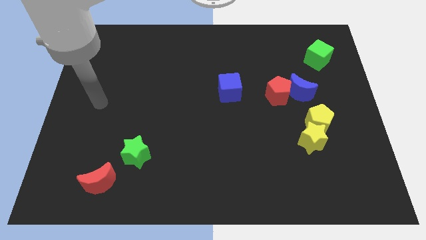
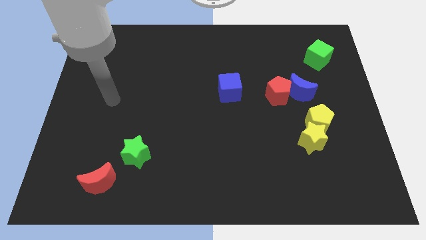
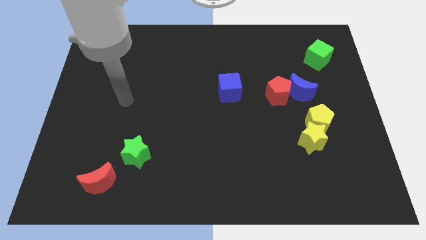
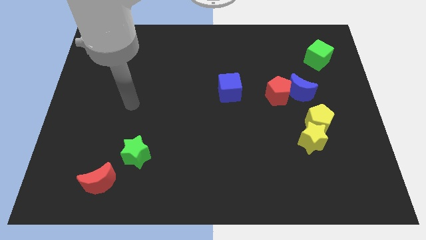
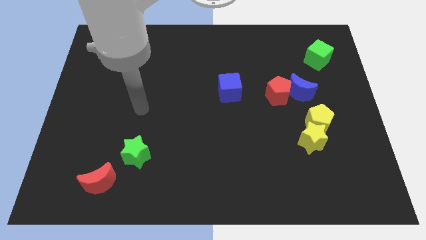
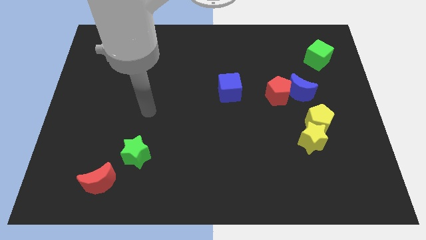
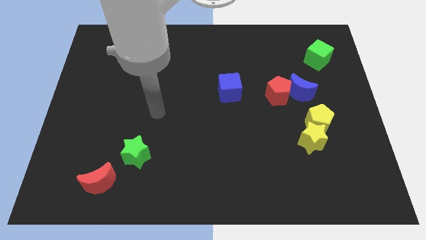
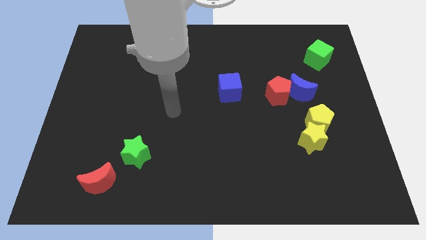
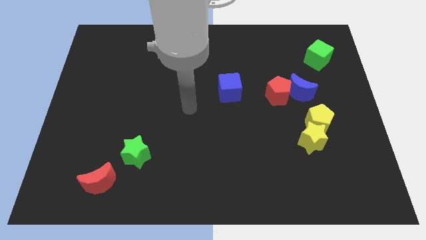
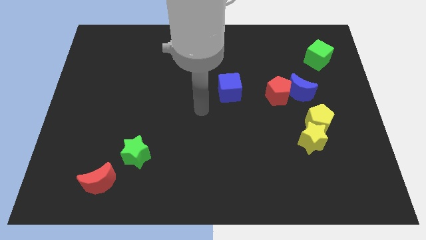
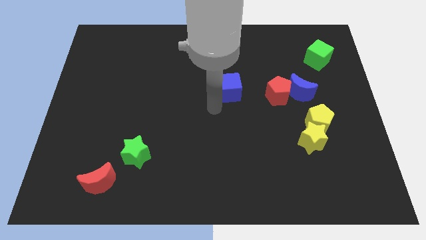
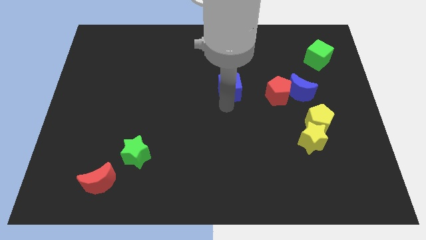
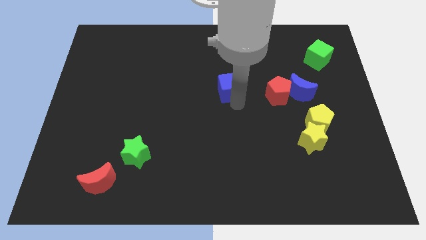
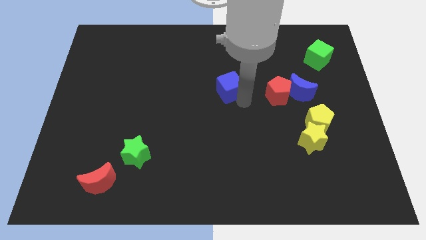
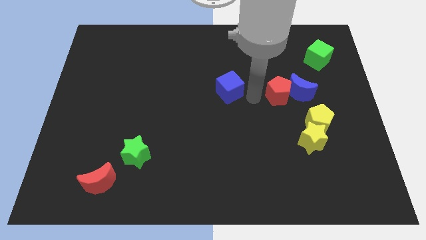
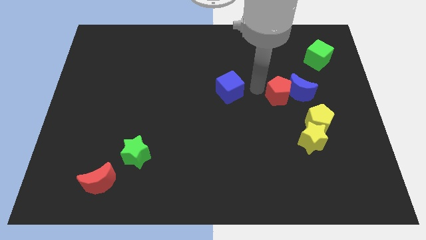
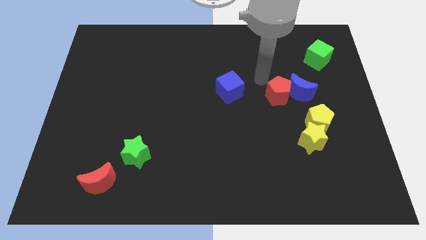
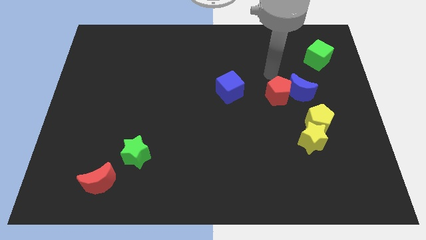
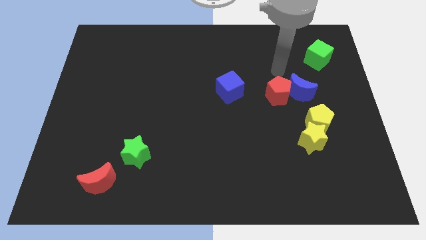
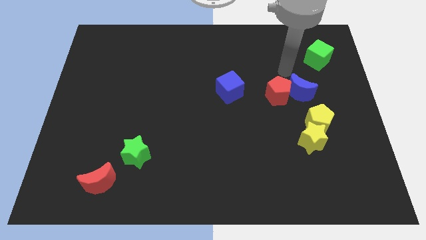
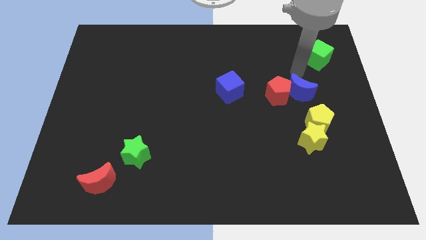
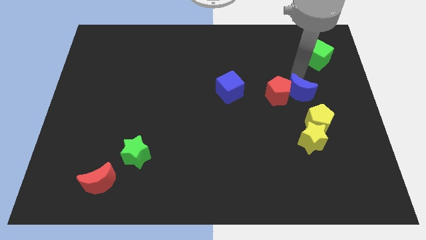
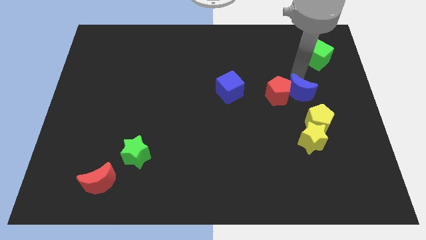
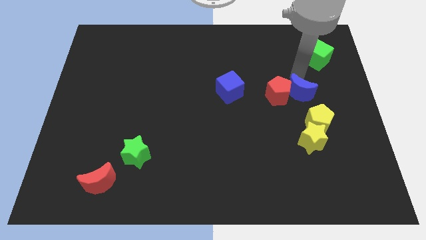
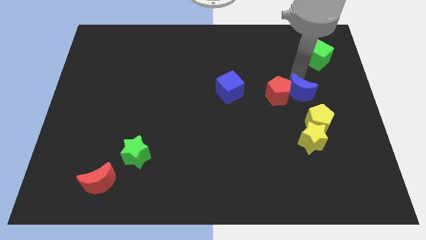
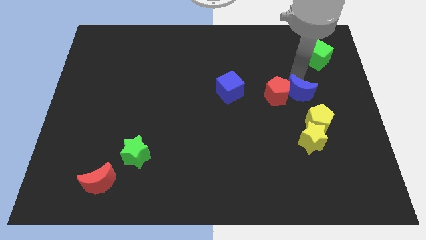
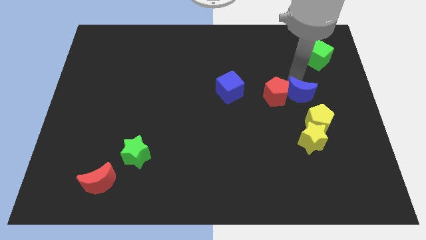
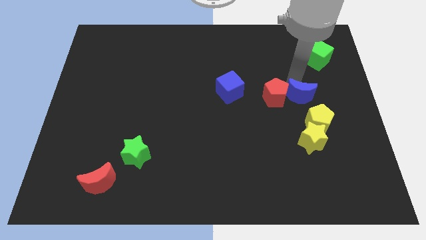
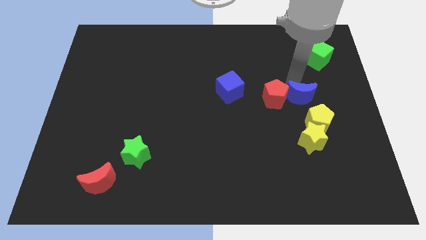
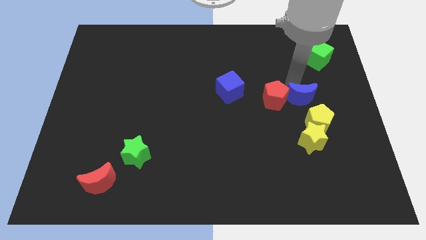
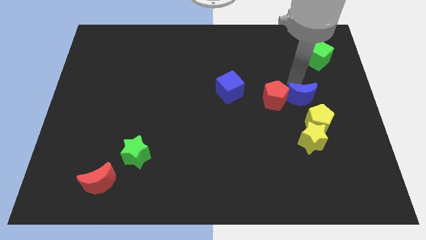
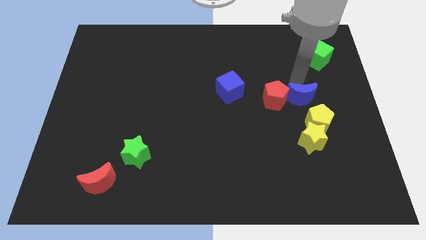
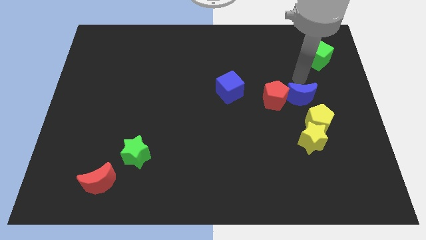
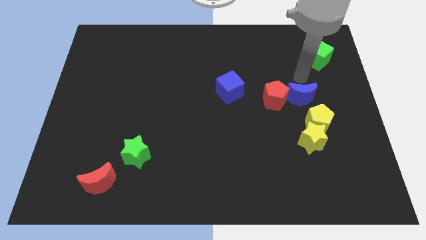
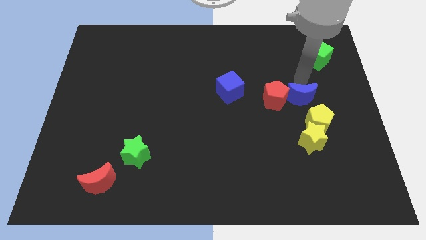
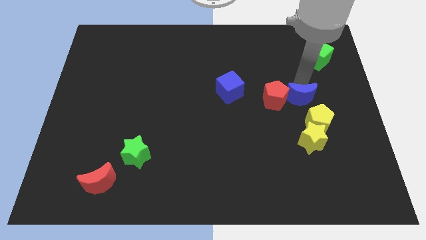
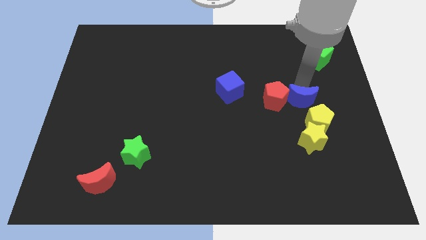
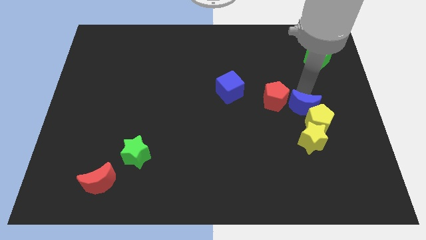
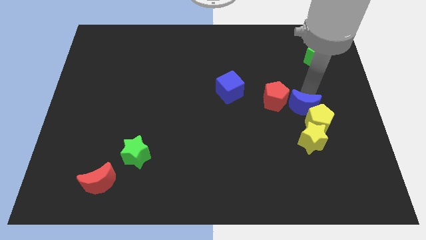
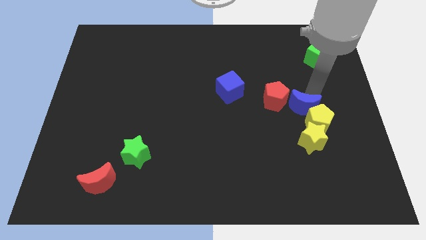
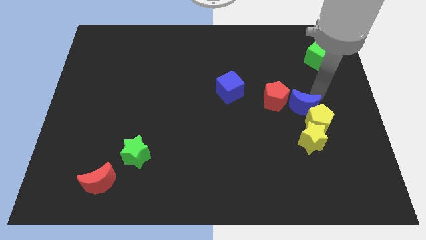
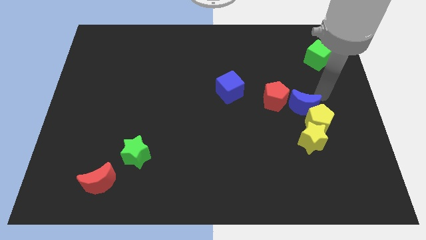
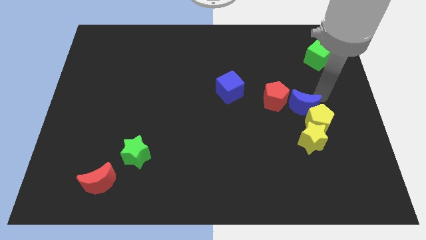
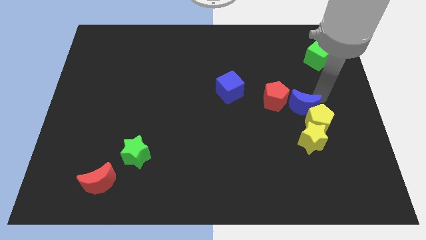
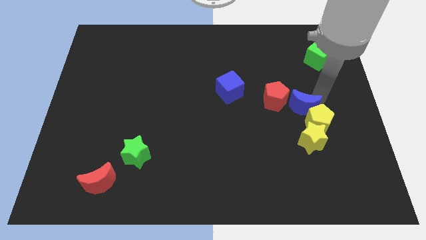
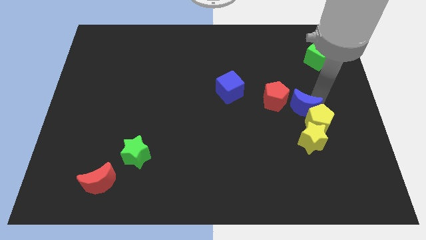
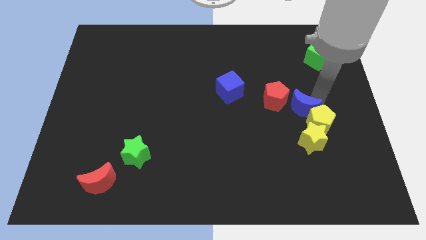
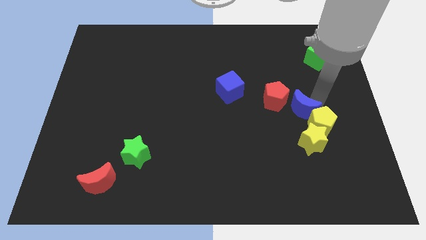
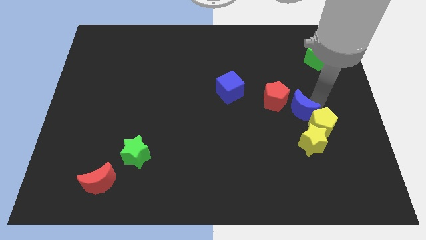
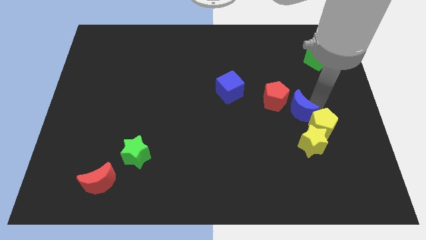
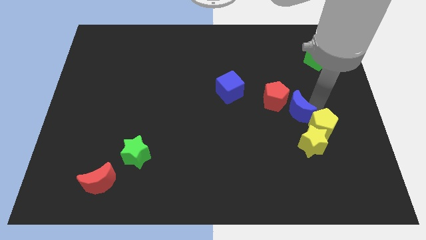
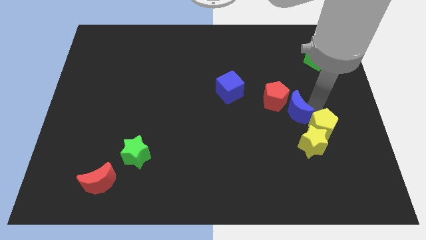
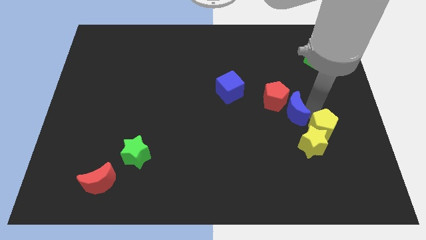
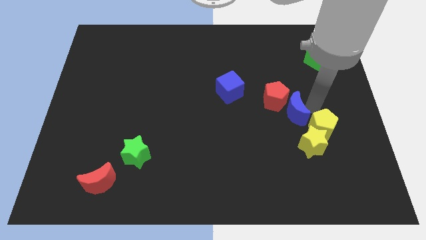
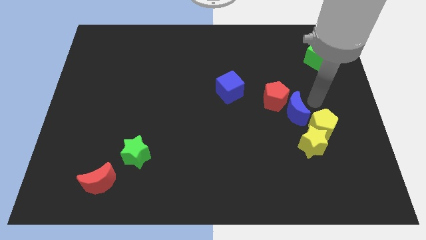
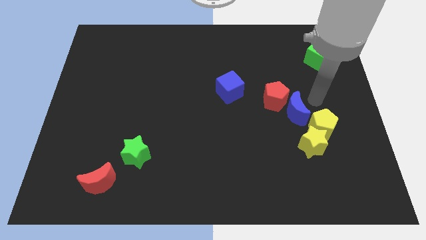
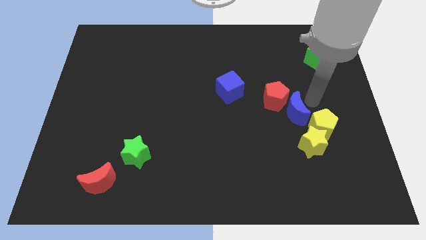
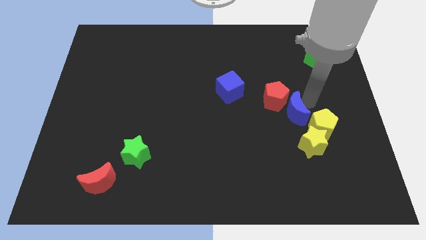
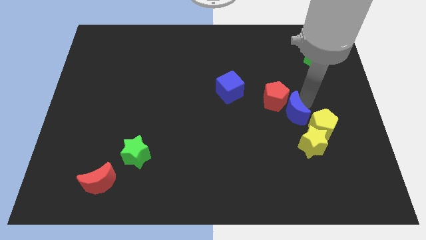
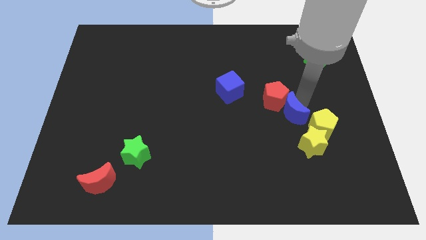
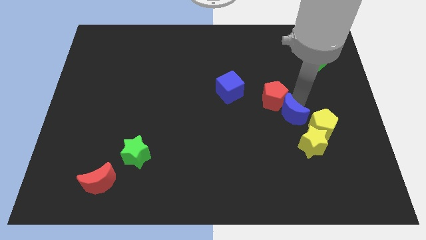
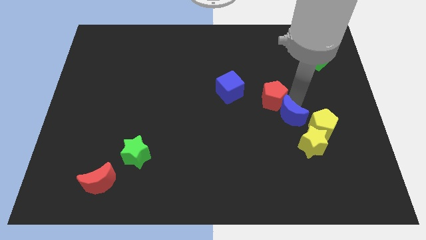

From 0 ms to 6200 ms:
slide the blue moon downwards and to the left slightly

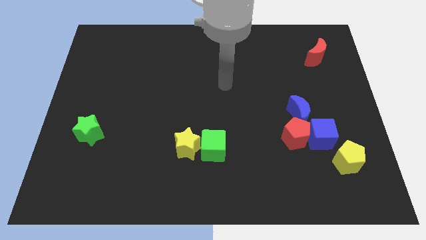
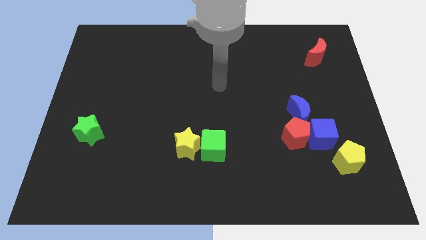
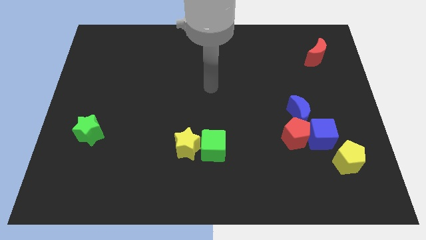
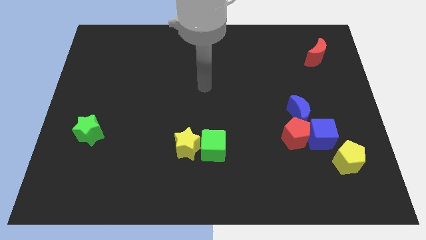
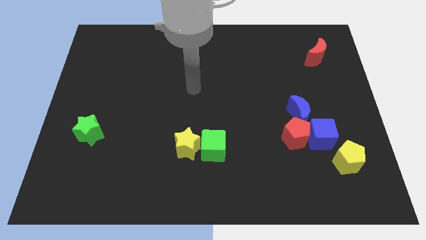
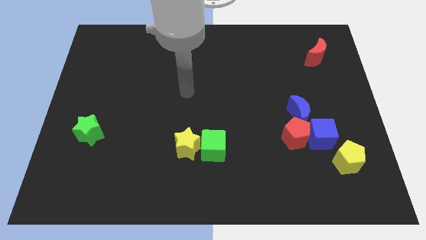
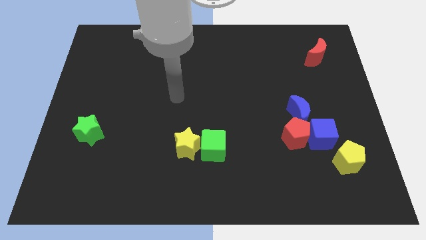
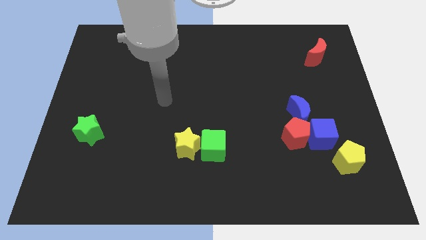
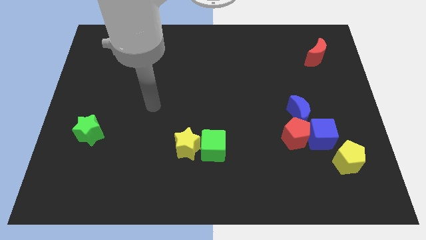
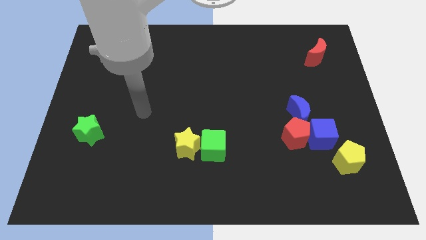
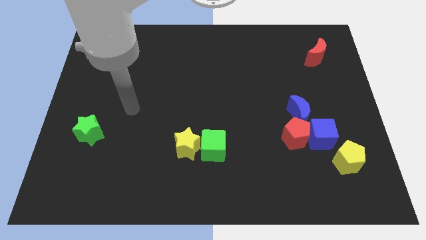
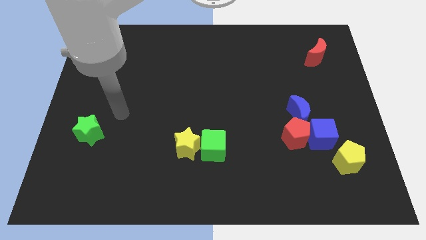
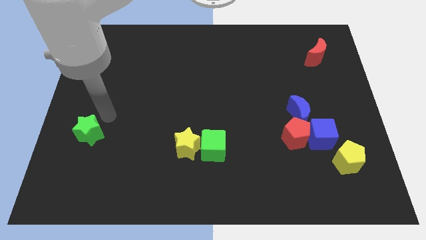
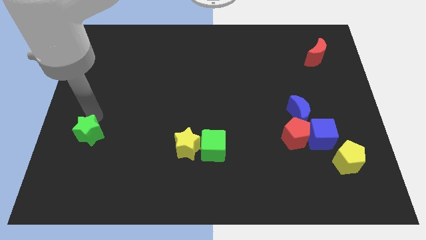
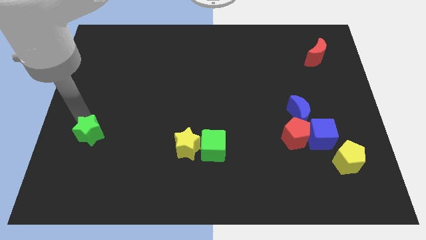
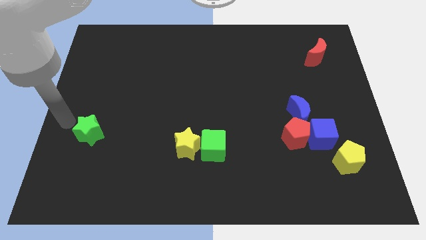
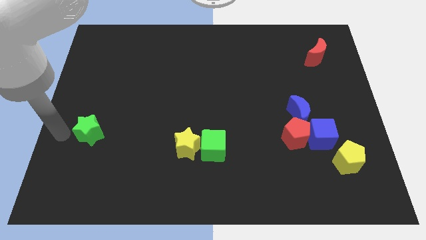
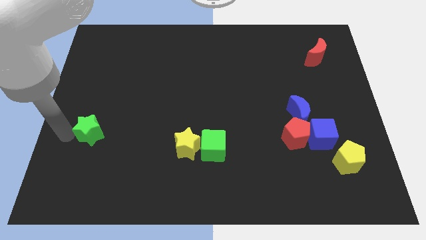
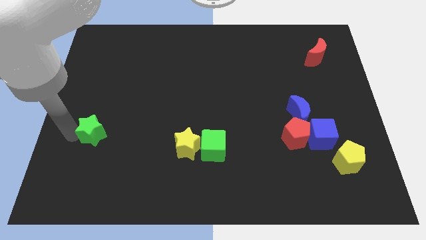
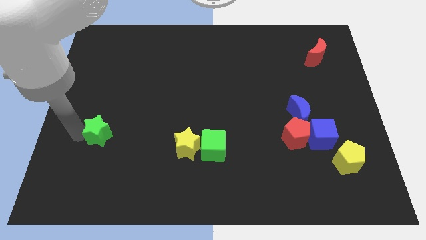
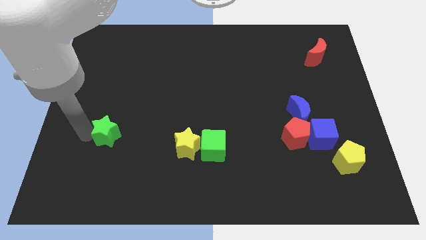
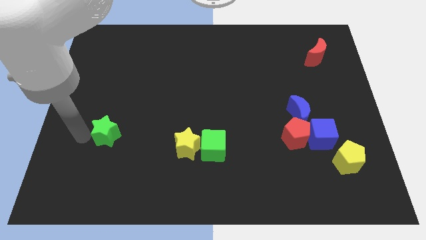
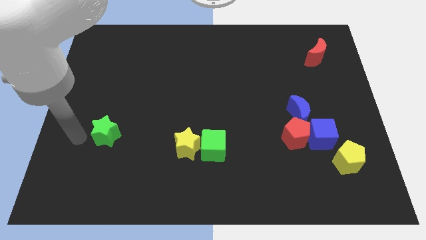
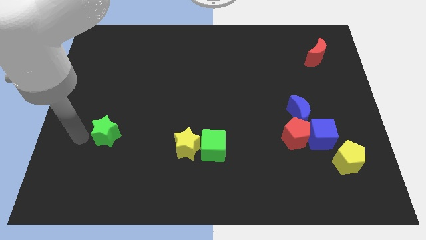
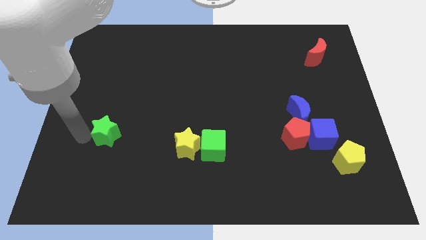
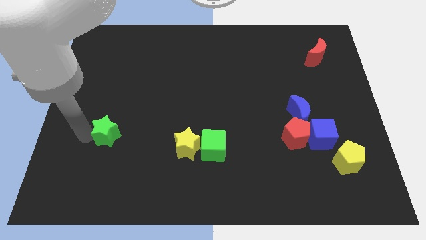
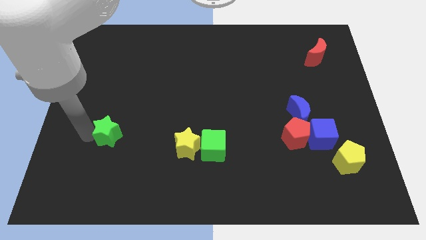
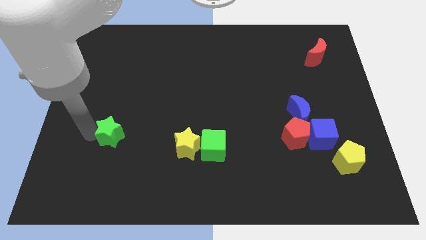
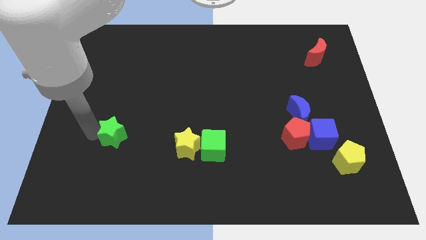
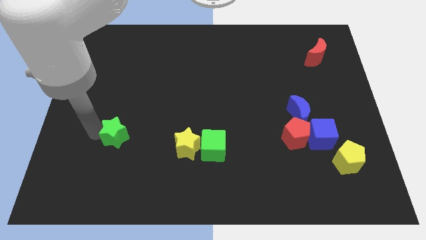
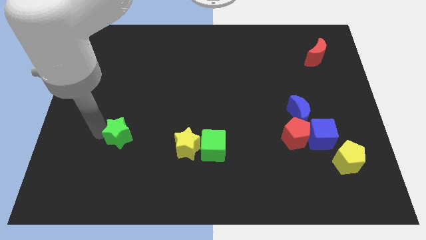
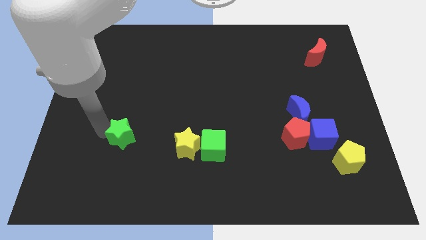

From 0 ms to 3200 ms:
slightly push the green star to the right
